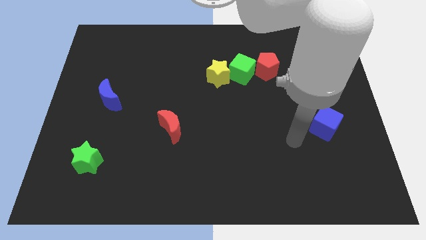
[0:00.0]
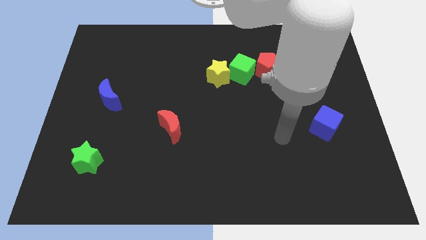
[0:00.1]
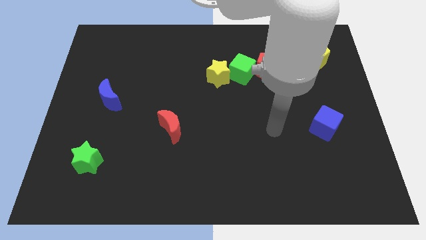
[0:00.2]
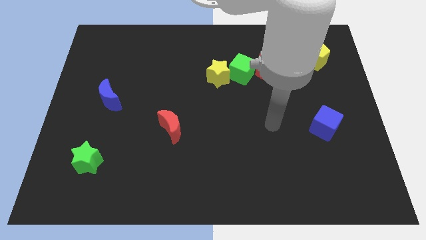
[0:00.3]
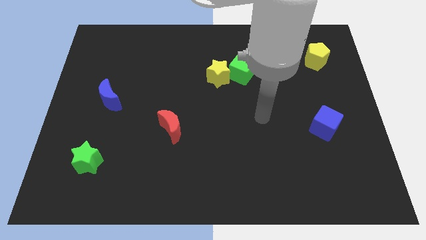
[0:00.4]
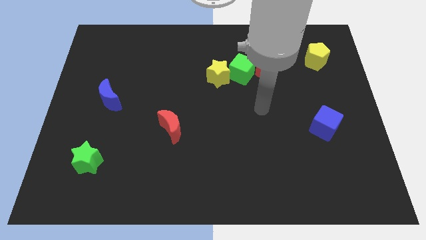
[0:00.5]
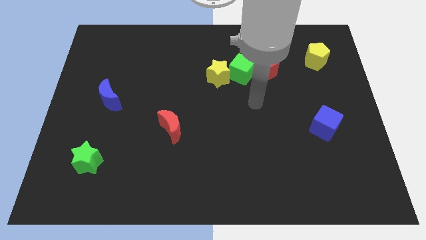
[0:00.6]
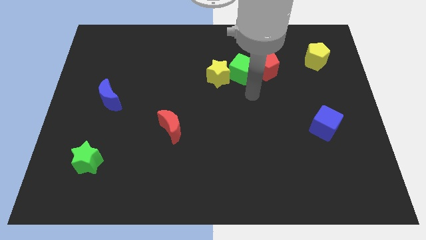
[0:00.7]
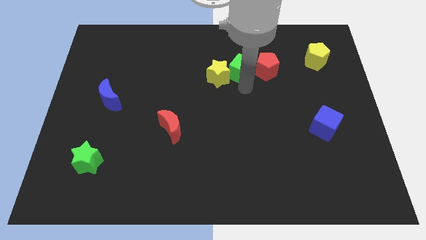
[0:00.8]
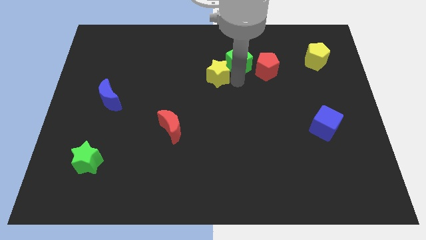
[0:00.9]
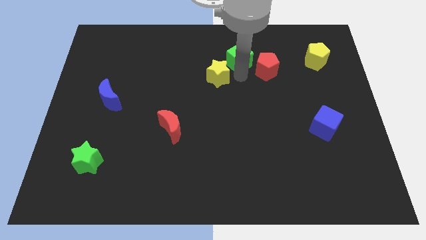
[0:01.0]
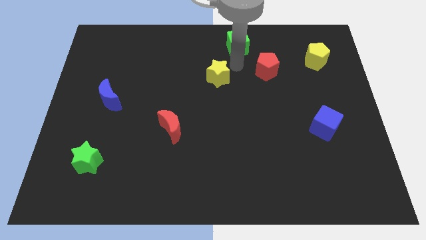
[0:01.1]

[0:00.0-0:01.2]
separate the yellow star from the green cube

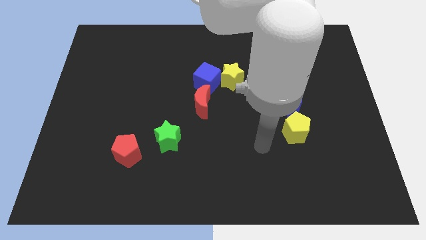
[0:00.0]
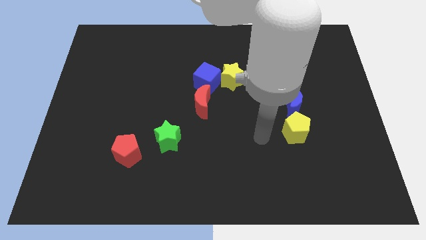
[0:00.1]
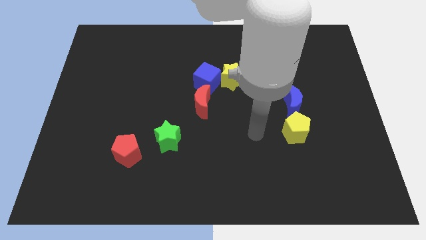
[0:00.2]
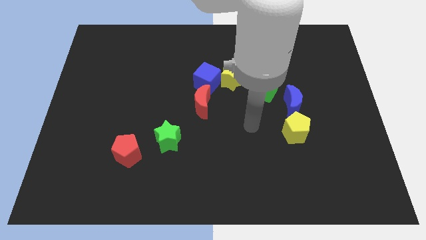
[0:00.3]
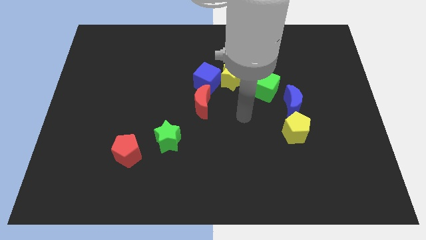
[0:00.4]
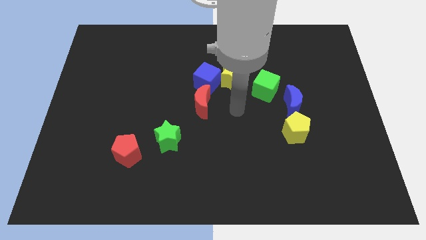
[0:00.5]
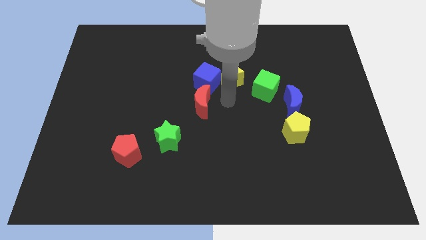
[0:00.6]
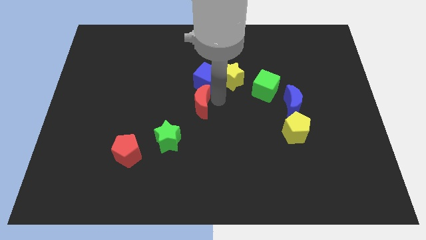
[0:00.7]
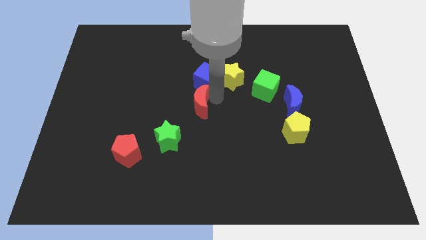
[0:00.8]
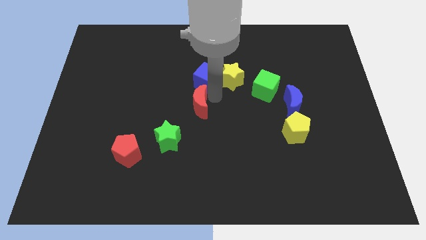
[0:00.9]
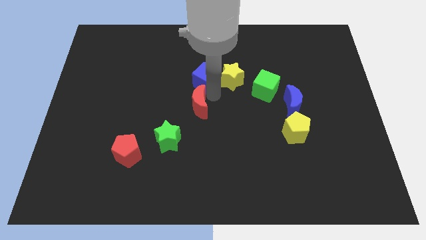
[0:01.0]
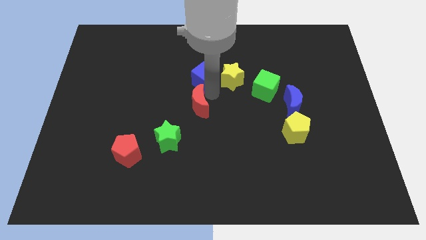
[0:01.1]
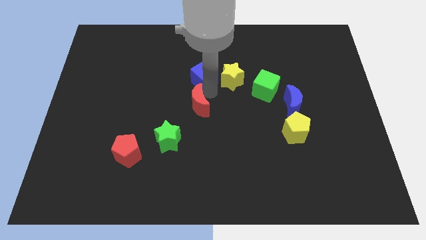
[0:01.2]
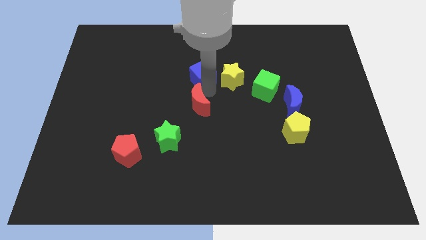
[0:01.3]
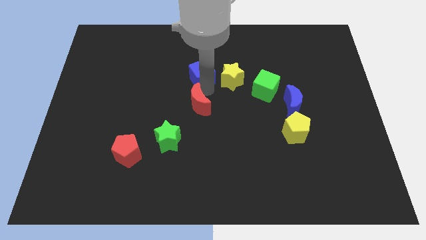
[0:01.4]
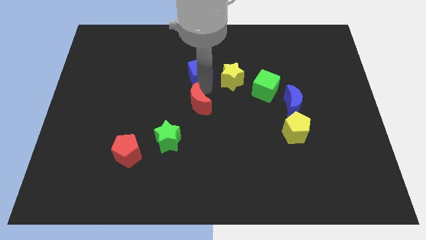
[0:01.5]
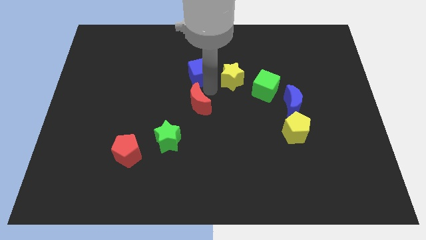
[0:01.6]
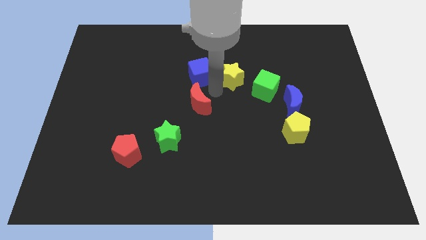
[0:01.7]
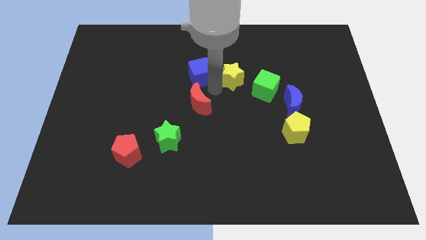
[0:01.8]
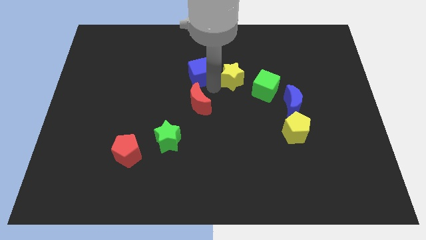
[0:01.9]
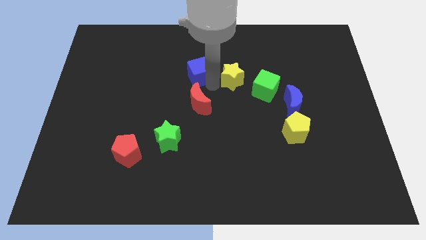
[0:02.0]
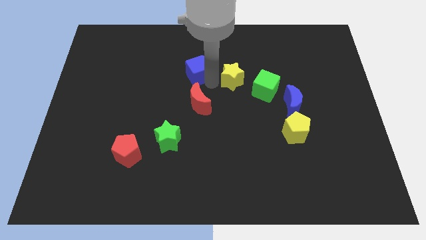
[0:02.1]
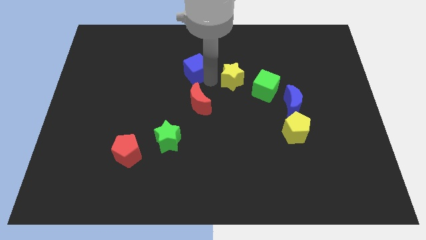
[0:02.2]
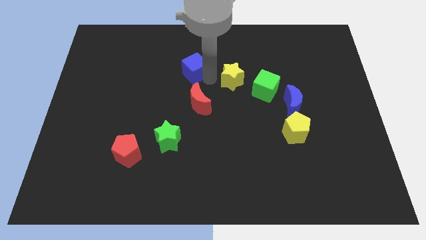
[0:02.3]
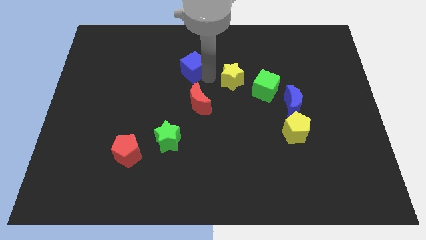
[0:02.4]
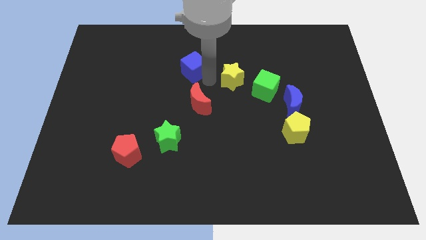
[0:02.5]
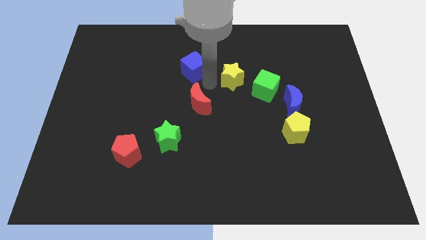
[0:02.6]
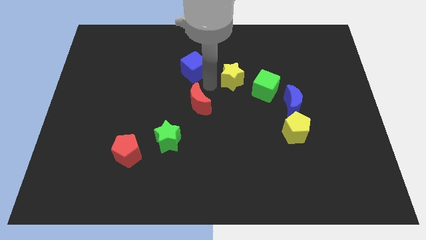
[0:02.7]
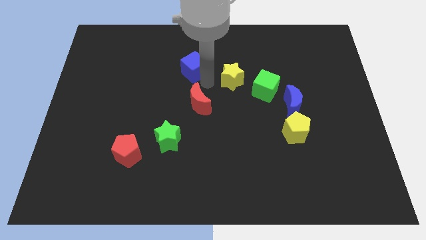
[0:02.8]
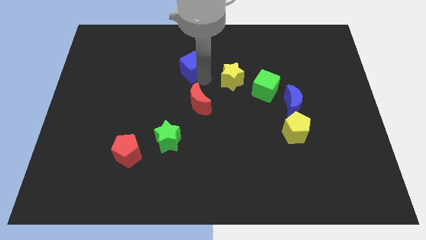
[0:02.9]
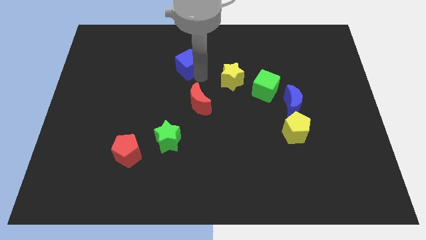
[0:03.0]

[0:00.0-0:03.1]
pull the blue cube apart from the yellow star and red moon

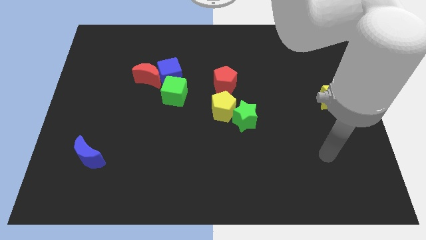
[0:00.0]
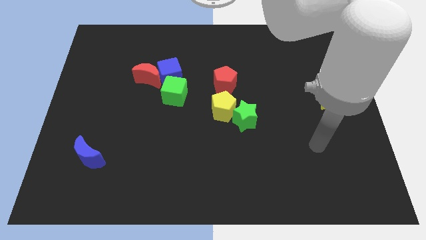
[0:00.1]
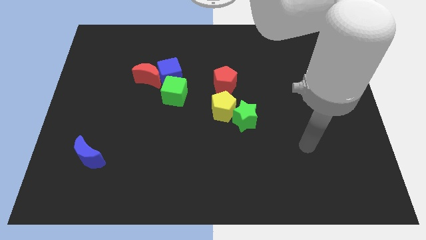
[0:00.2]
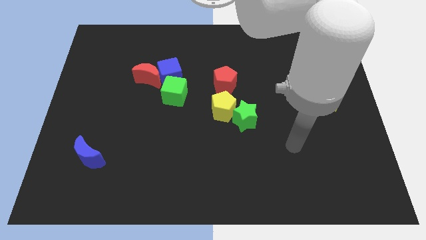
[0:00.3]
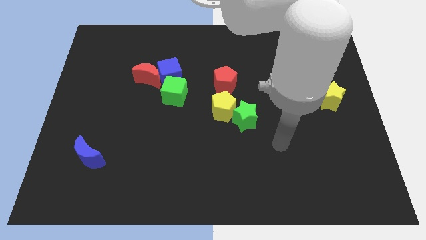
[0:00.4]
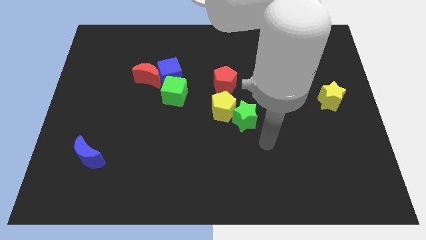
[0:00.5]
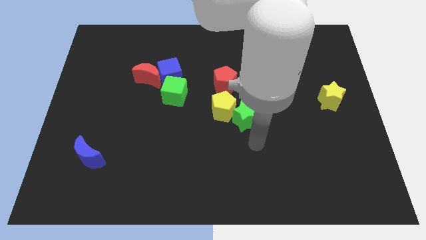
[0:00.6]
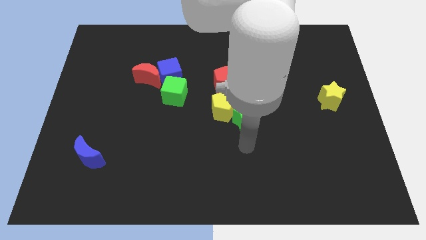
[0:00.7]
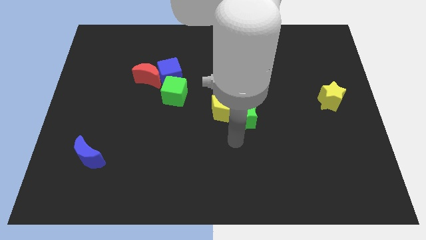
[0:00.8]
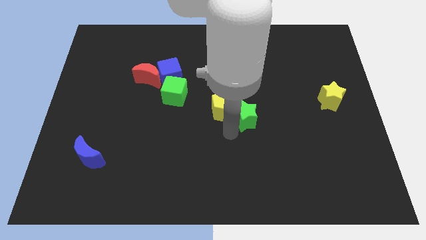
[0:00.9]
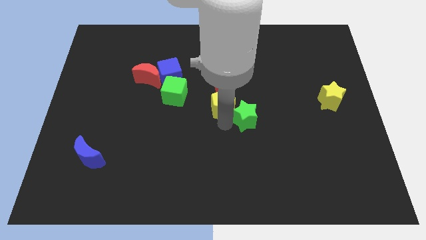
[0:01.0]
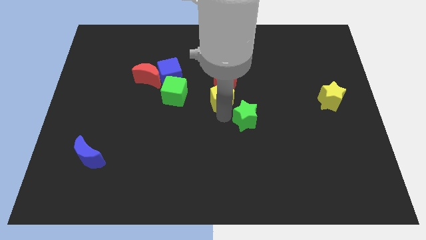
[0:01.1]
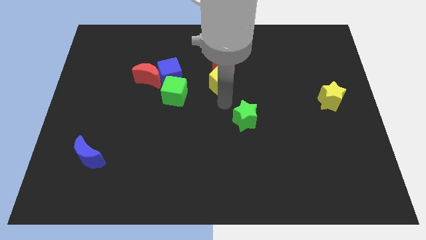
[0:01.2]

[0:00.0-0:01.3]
pull the green star apart from the yellow pentagon

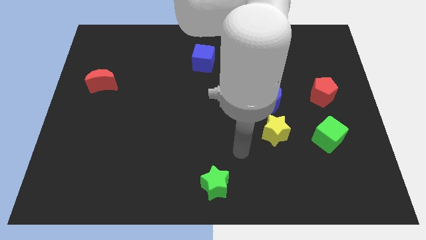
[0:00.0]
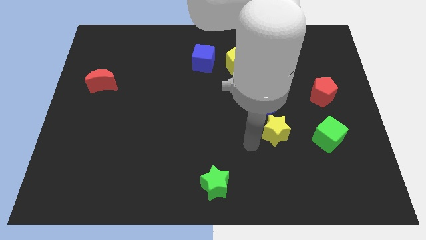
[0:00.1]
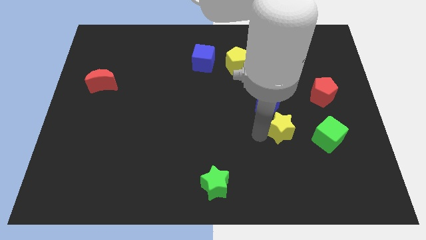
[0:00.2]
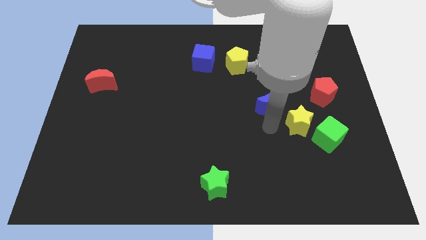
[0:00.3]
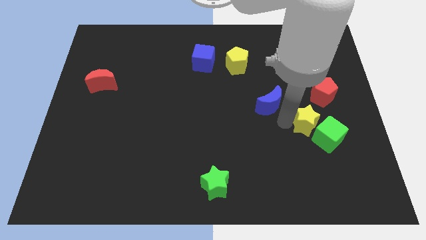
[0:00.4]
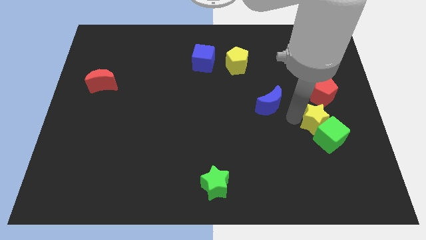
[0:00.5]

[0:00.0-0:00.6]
separate the blue moon from the yellow star

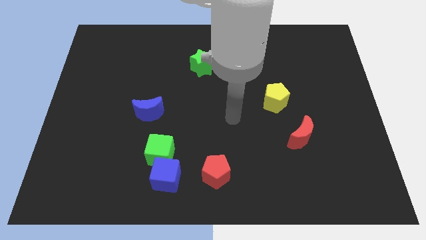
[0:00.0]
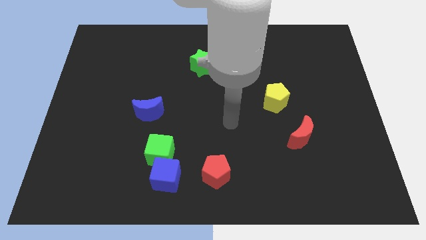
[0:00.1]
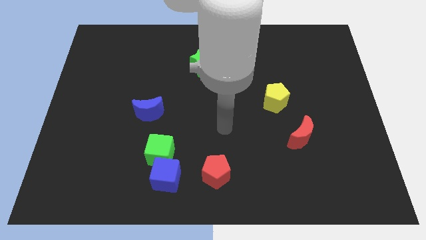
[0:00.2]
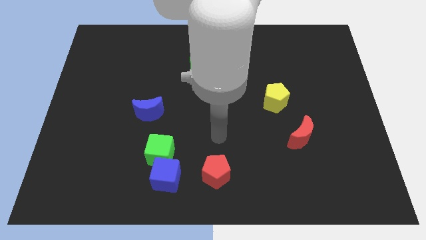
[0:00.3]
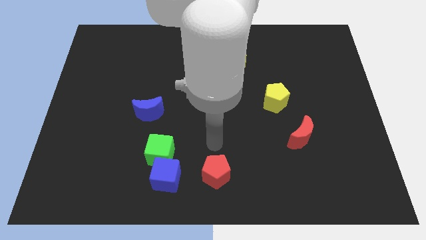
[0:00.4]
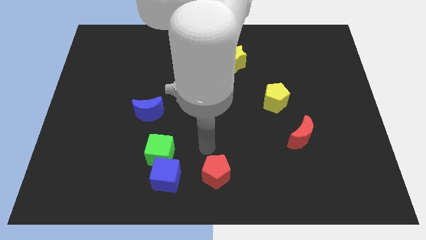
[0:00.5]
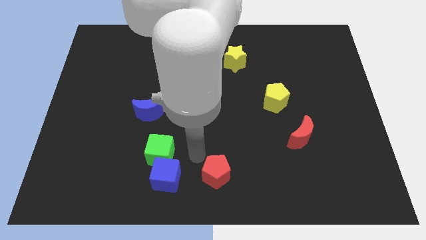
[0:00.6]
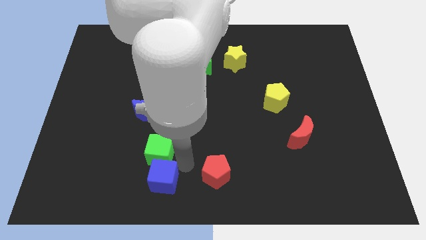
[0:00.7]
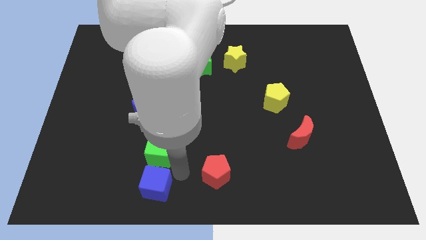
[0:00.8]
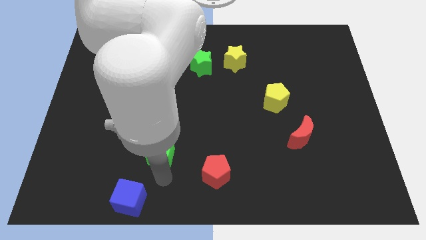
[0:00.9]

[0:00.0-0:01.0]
pull the green cube apart from the blue cube

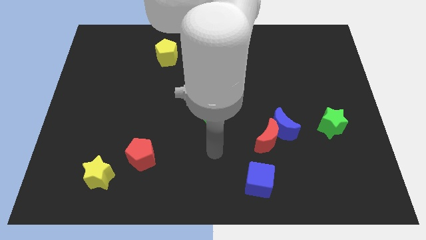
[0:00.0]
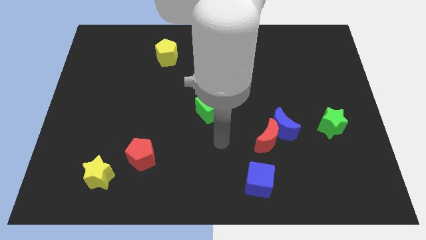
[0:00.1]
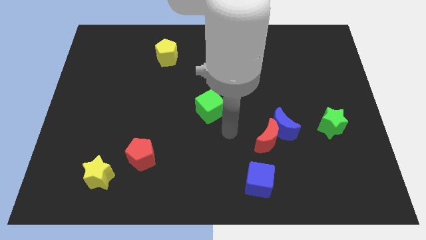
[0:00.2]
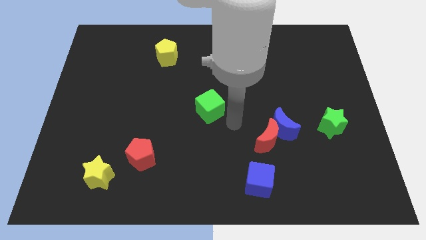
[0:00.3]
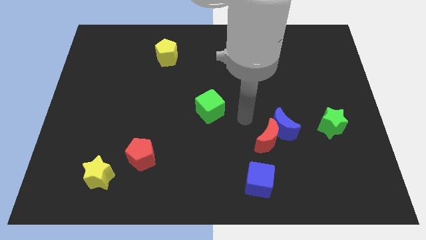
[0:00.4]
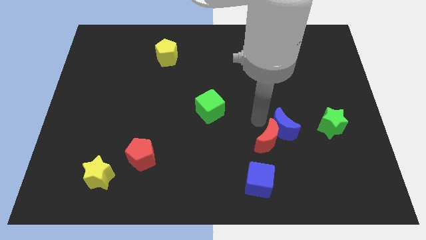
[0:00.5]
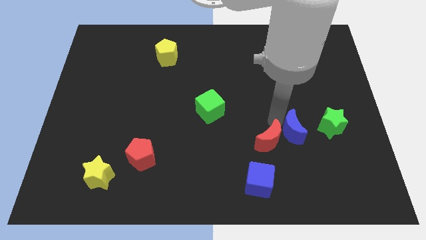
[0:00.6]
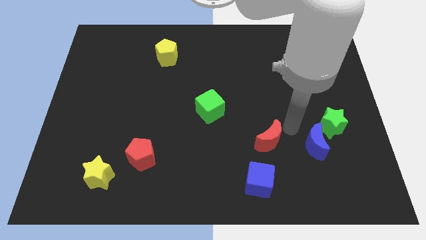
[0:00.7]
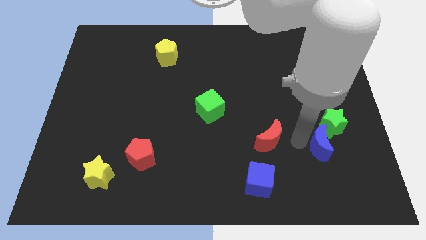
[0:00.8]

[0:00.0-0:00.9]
separate the red moon from the blue moon

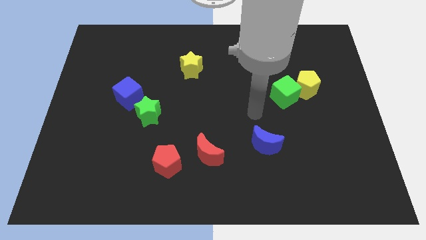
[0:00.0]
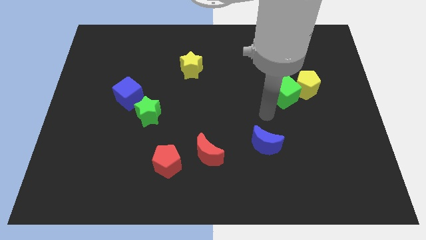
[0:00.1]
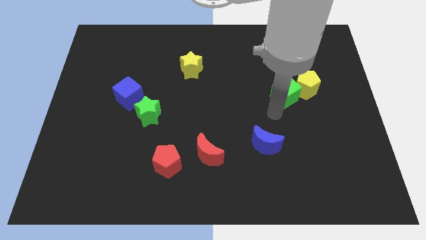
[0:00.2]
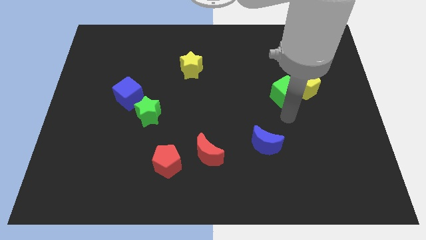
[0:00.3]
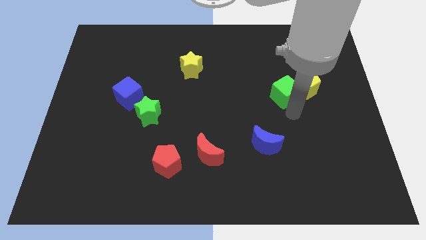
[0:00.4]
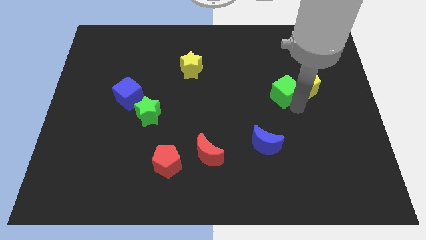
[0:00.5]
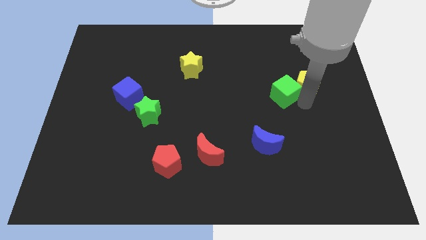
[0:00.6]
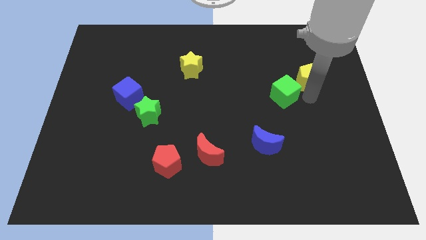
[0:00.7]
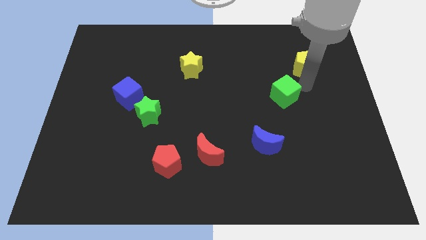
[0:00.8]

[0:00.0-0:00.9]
pull the green cube apart from the yellow pentagon

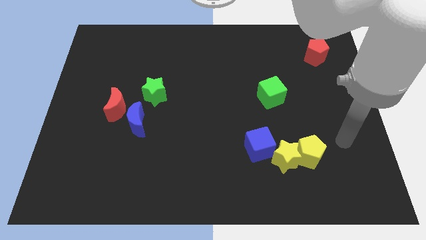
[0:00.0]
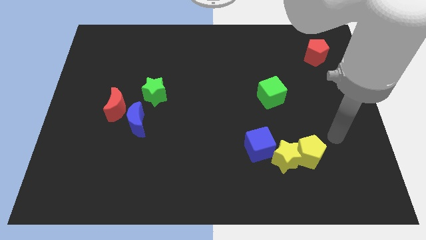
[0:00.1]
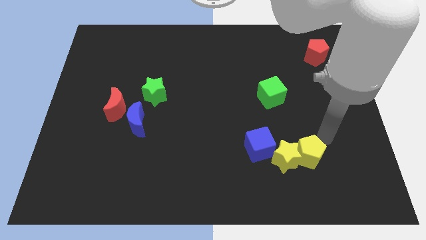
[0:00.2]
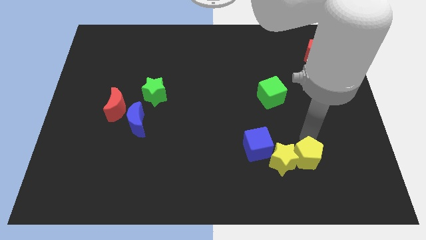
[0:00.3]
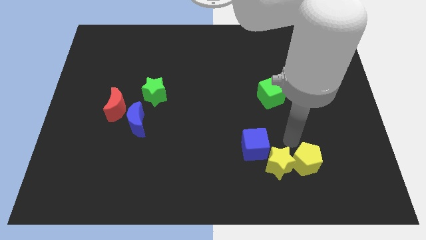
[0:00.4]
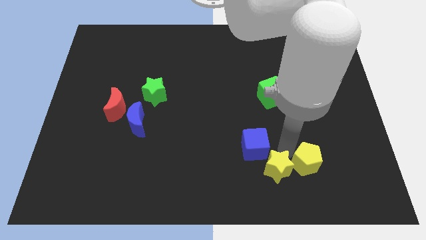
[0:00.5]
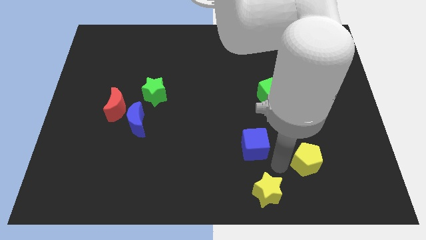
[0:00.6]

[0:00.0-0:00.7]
move the yellow pentagon away from the yellow star
